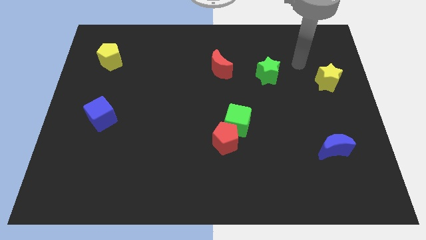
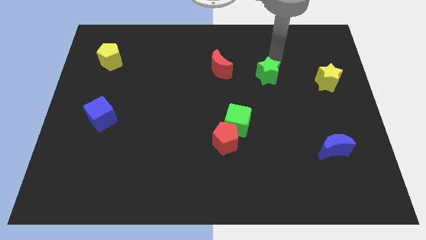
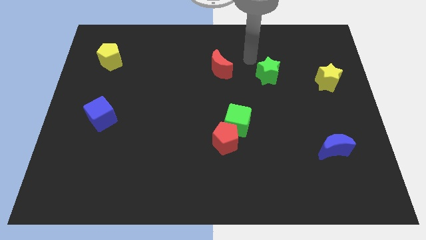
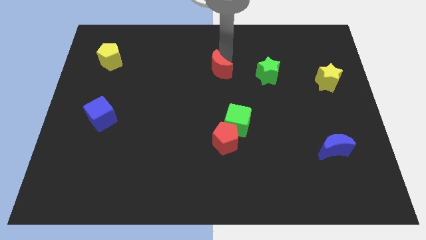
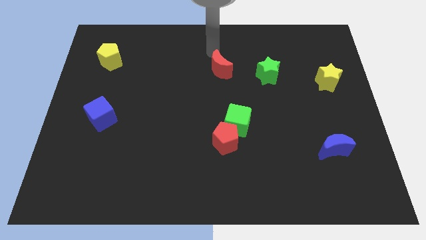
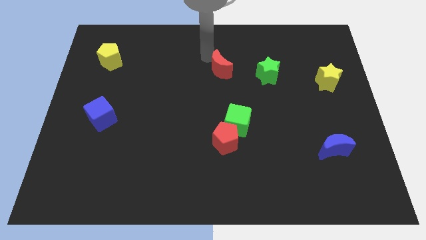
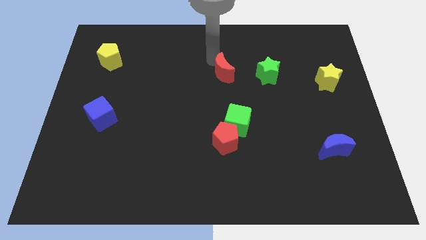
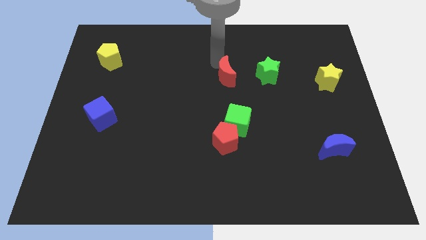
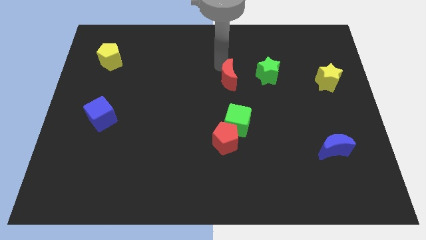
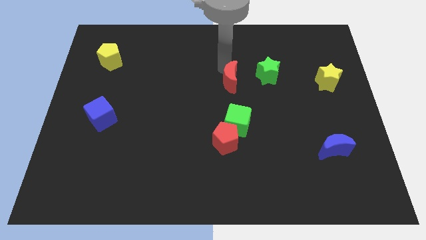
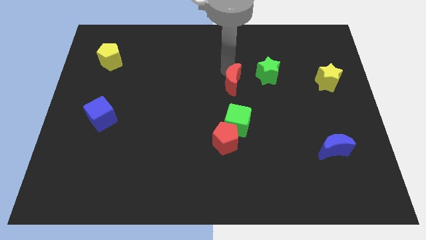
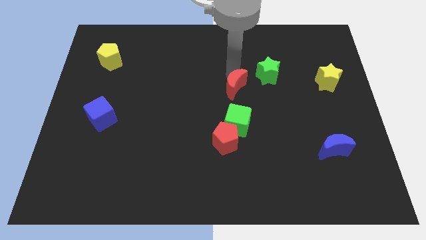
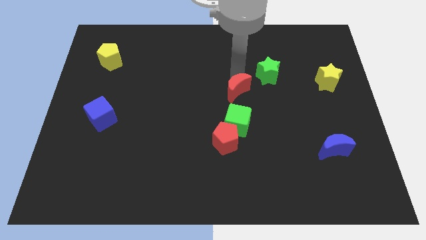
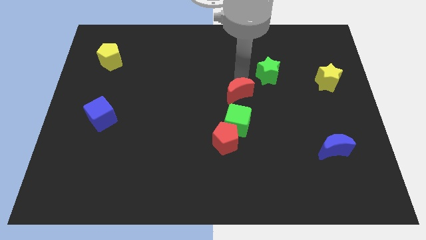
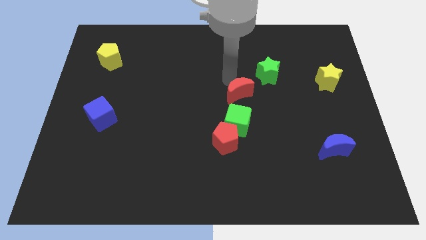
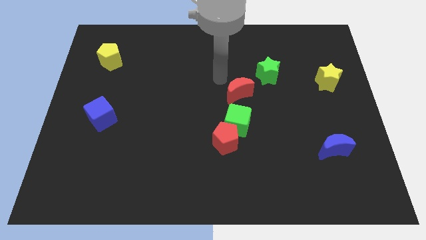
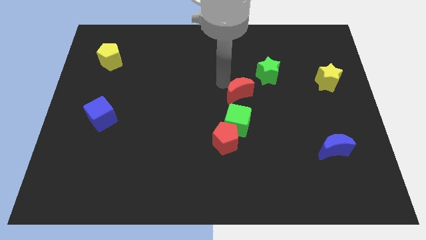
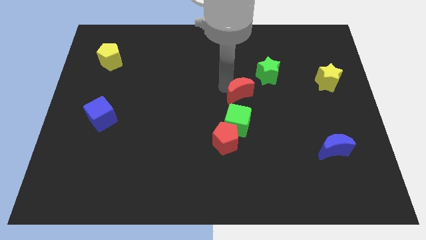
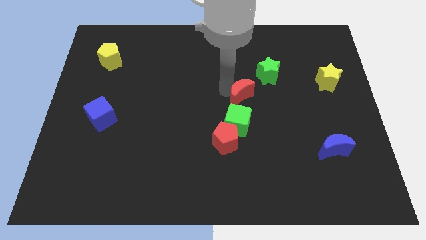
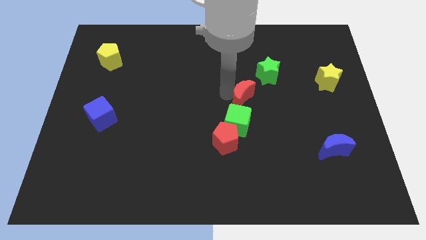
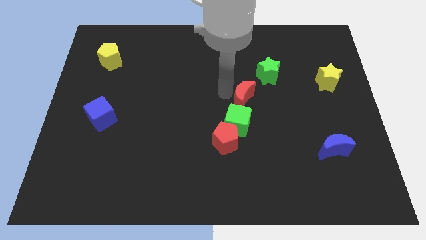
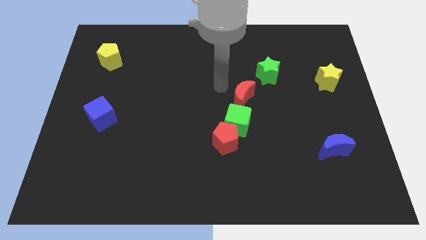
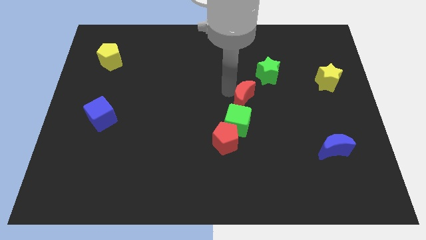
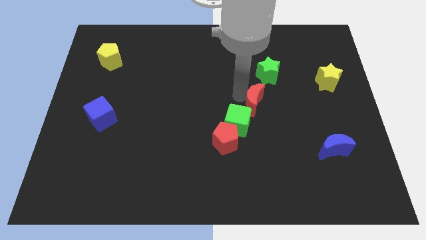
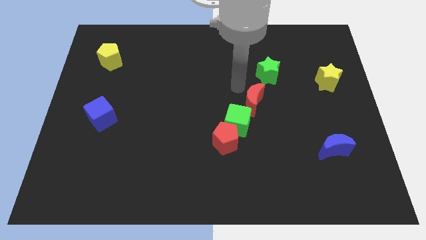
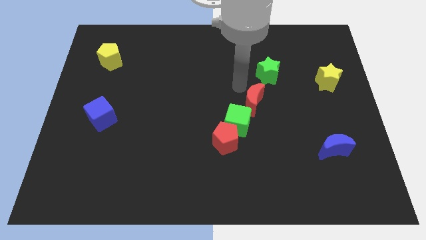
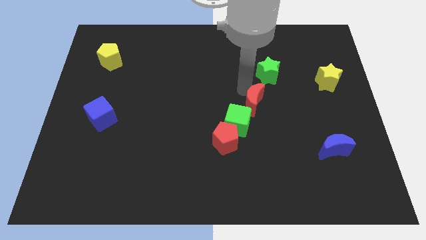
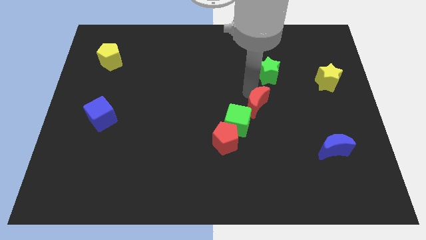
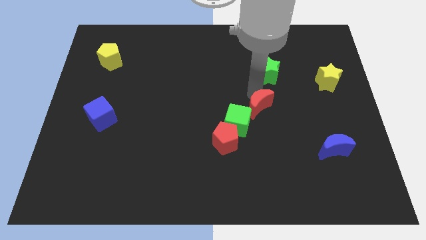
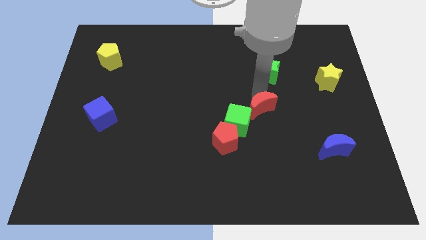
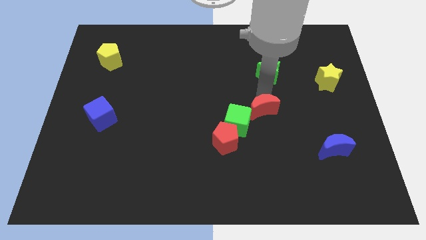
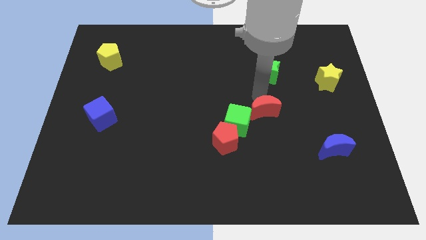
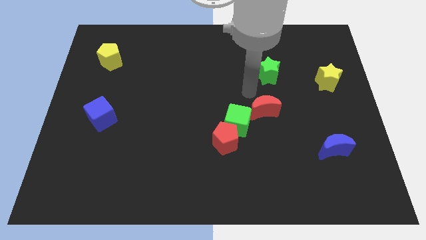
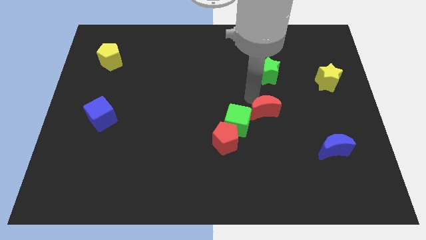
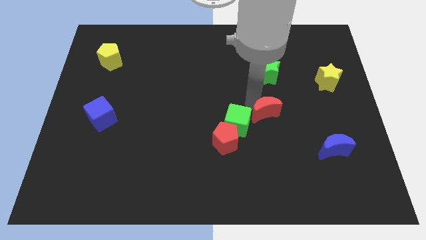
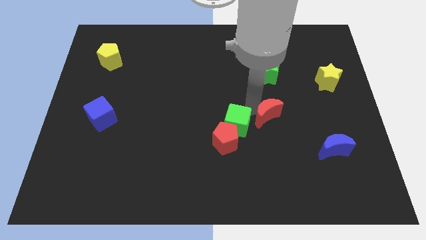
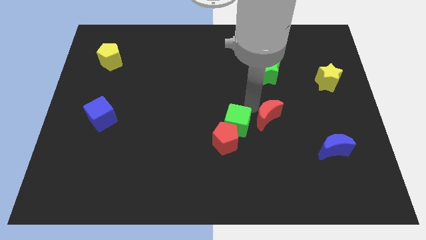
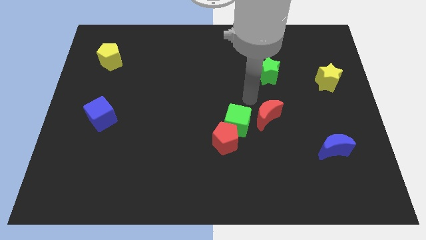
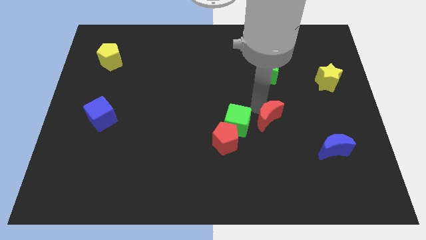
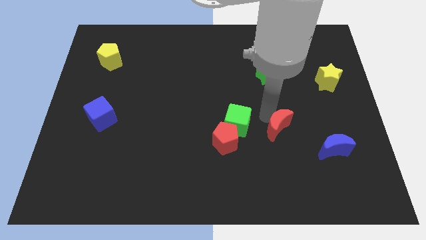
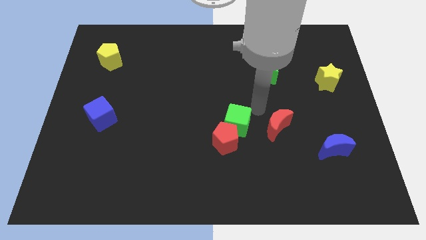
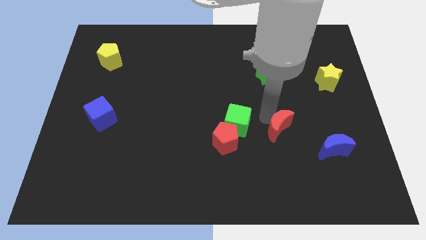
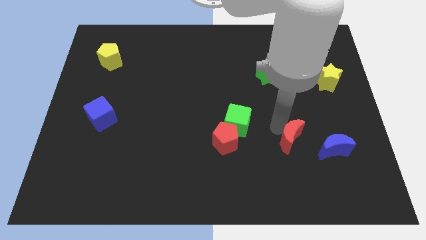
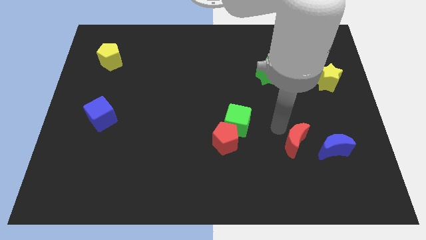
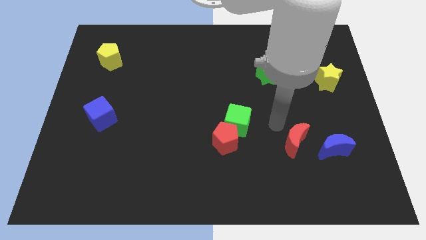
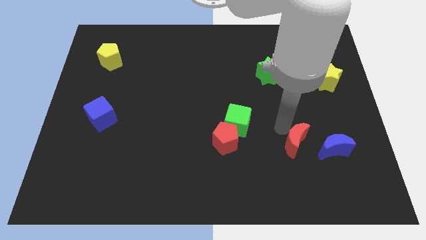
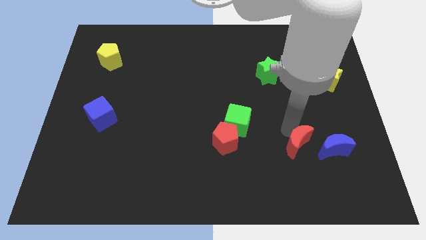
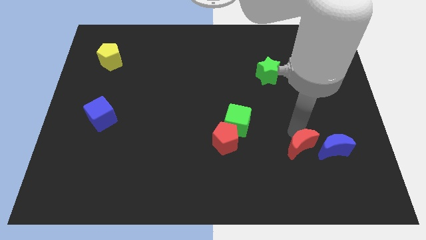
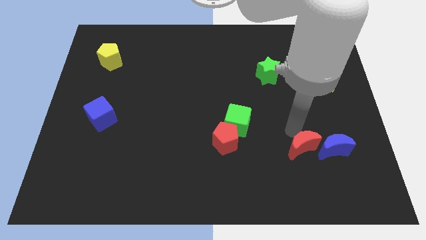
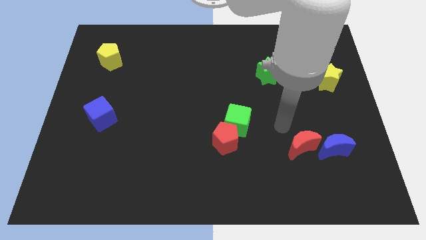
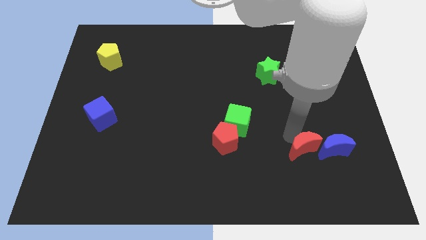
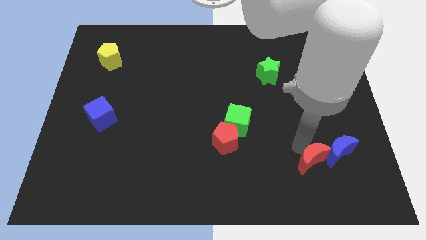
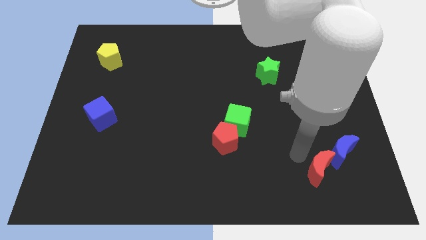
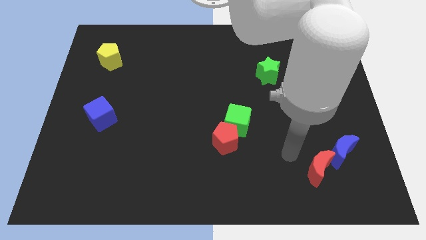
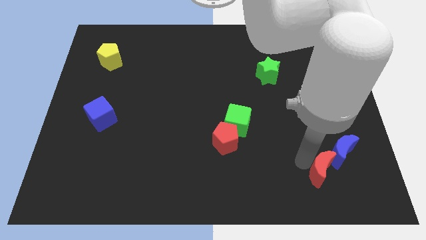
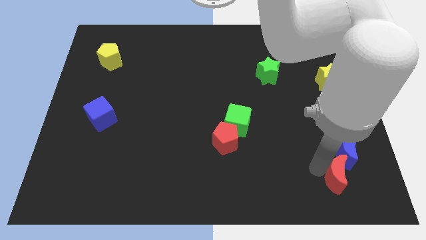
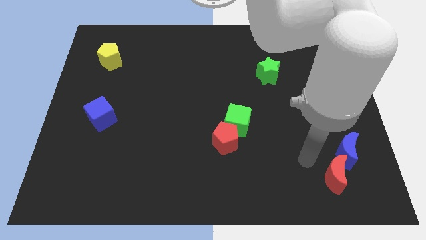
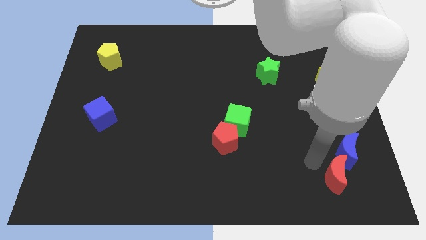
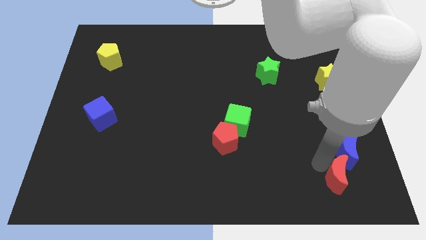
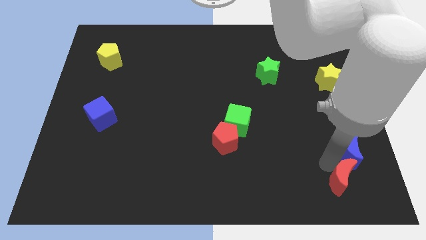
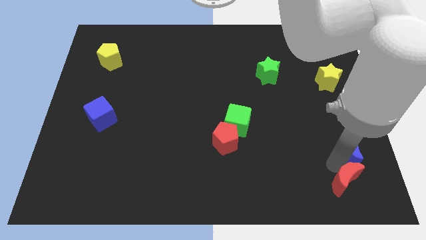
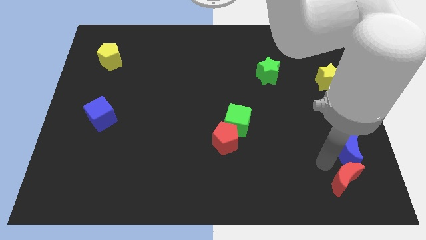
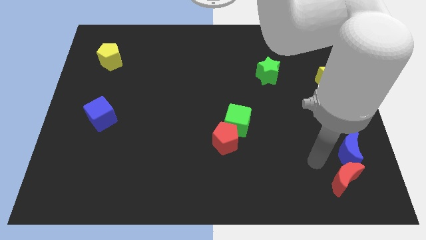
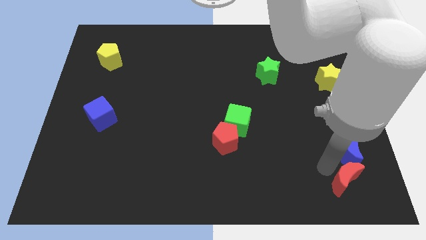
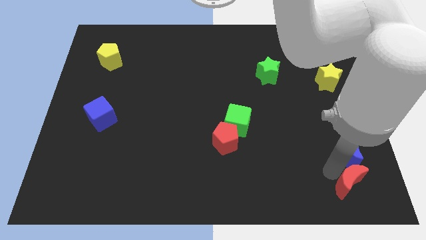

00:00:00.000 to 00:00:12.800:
slide the red moon to the bottom right
